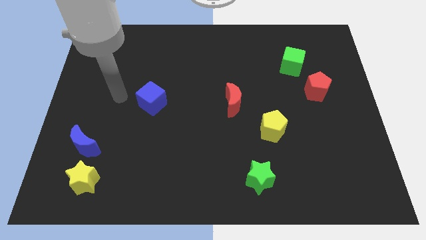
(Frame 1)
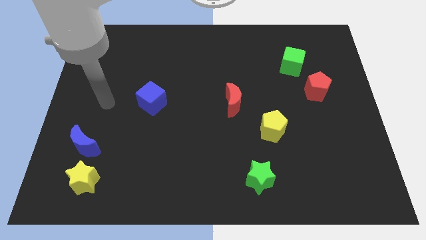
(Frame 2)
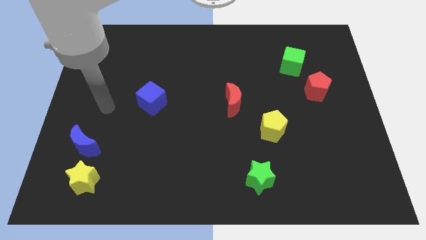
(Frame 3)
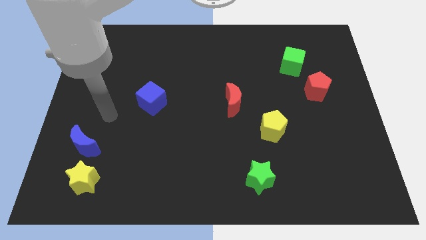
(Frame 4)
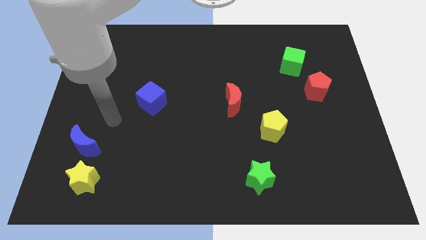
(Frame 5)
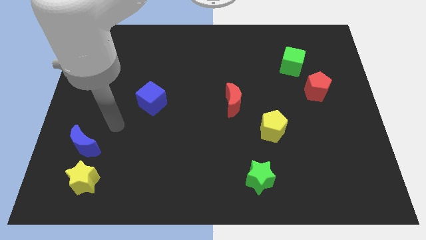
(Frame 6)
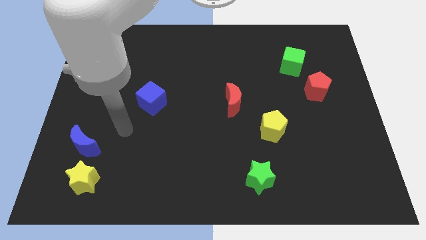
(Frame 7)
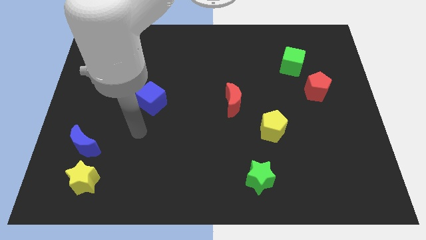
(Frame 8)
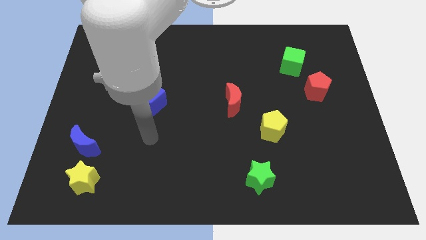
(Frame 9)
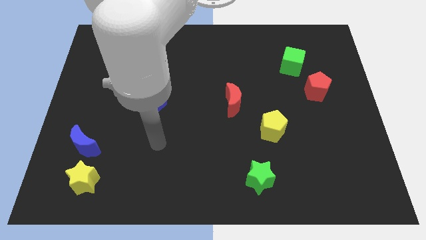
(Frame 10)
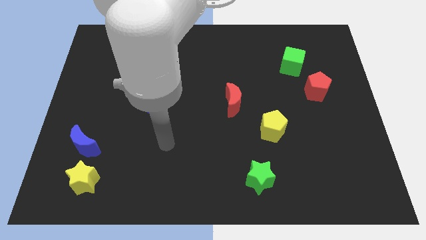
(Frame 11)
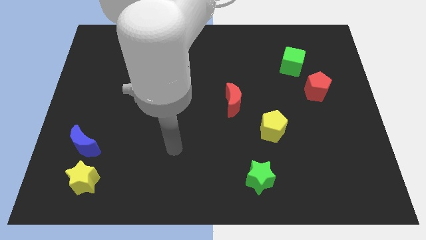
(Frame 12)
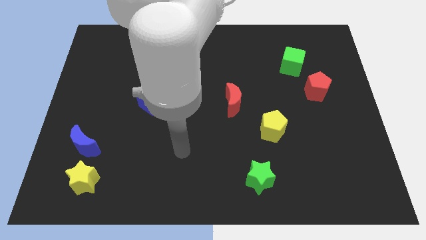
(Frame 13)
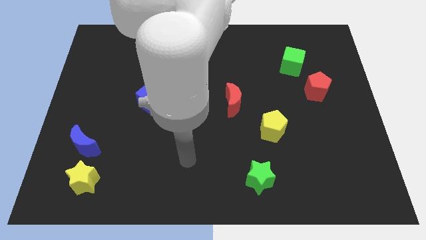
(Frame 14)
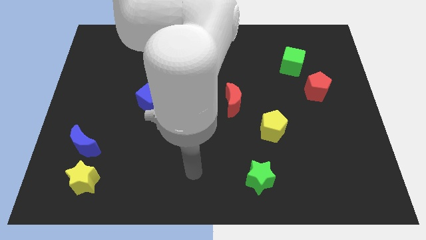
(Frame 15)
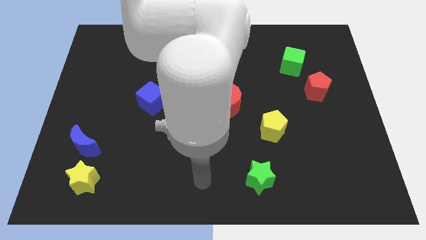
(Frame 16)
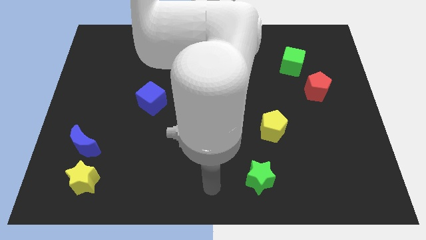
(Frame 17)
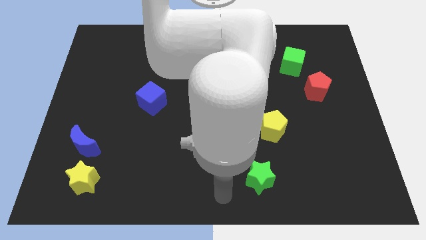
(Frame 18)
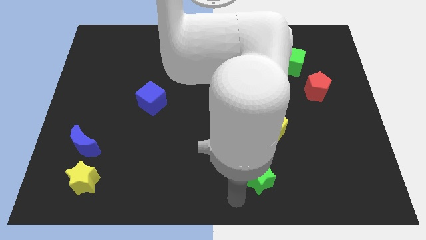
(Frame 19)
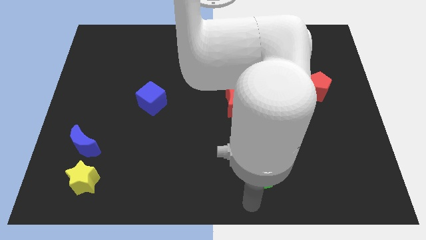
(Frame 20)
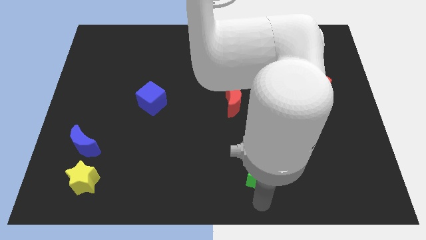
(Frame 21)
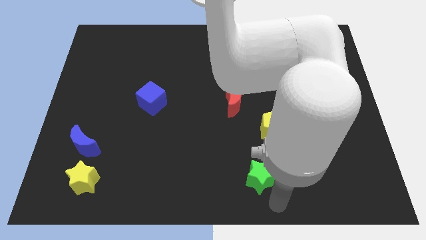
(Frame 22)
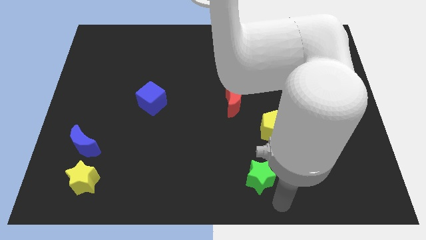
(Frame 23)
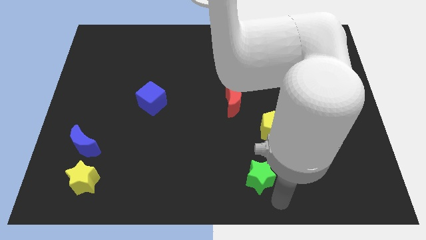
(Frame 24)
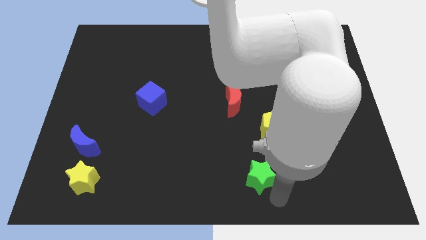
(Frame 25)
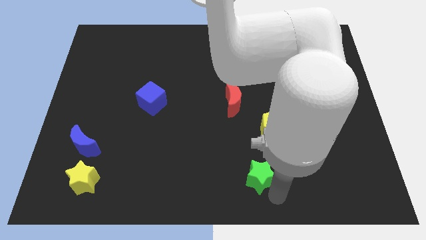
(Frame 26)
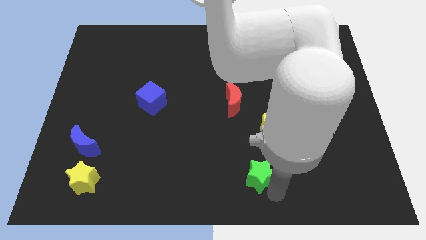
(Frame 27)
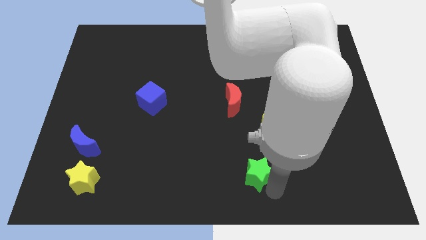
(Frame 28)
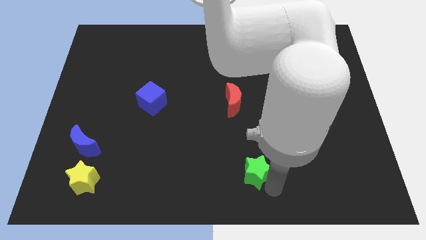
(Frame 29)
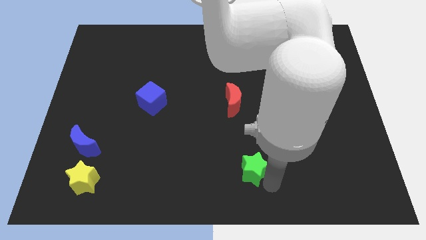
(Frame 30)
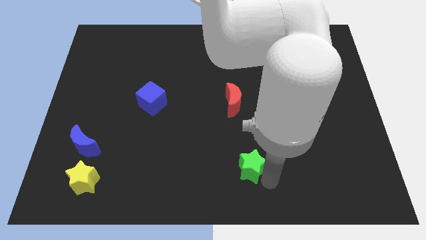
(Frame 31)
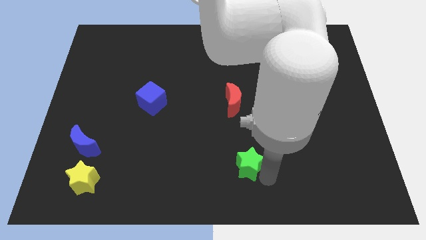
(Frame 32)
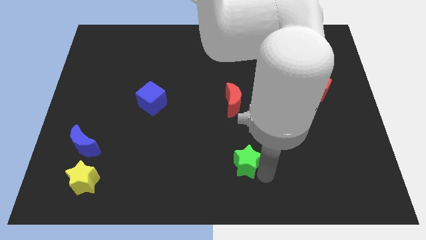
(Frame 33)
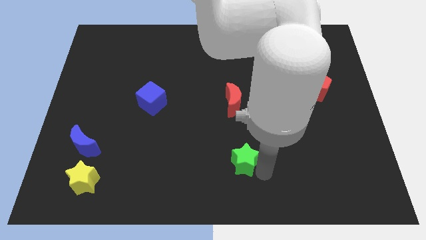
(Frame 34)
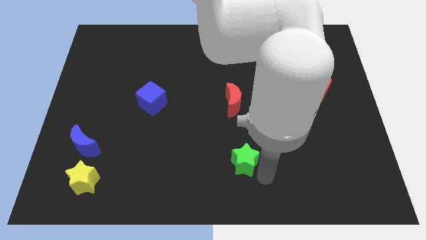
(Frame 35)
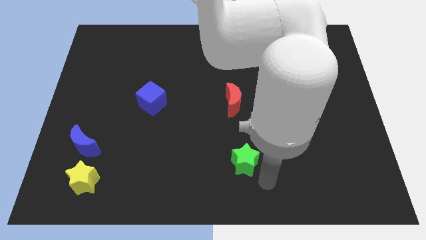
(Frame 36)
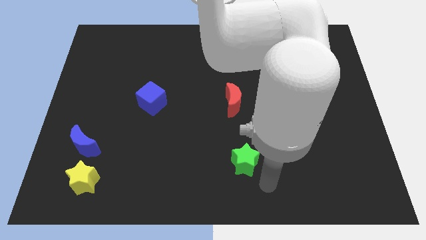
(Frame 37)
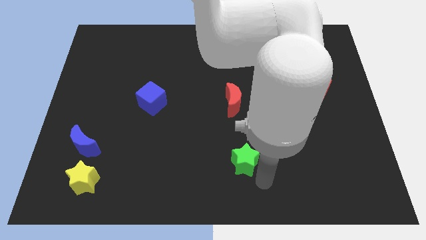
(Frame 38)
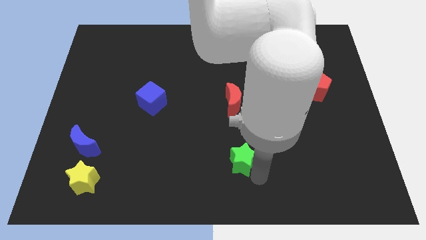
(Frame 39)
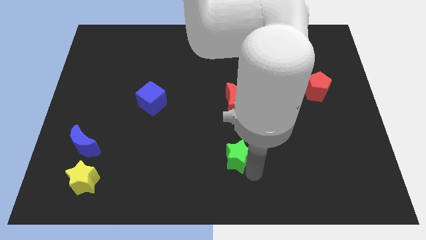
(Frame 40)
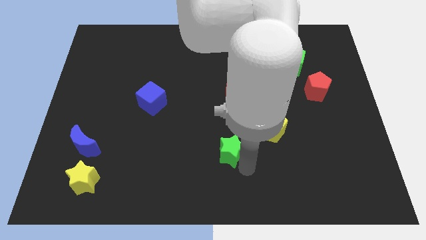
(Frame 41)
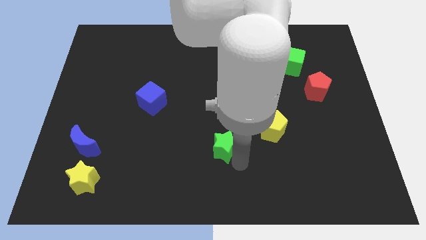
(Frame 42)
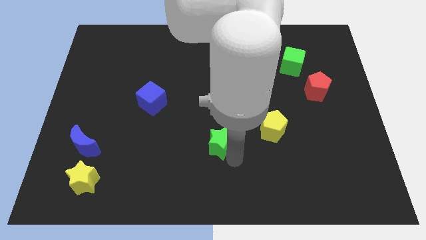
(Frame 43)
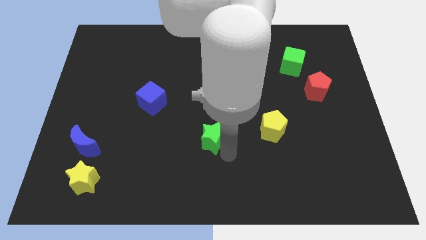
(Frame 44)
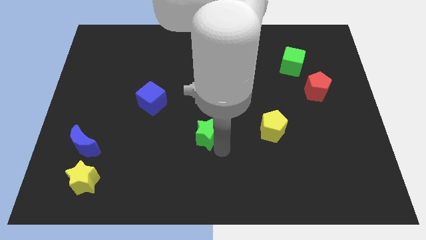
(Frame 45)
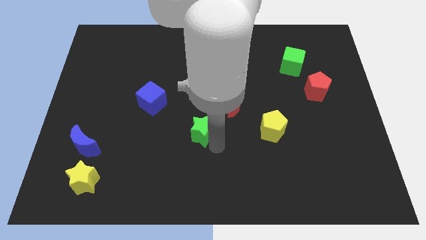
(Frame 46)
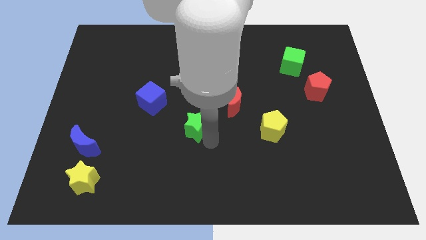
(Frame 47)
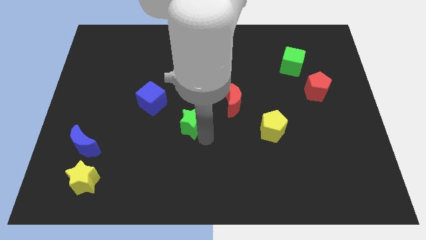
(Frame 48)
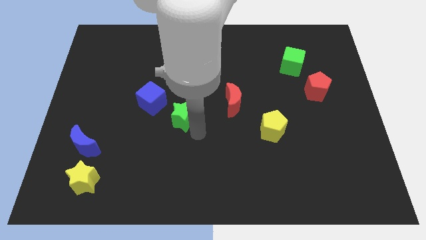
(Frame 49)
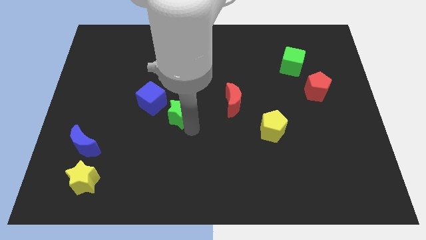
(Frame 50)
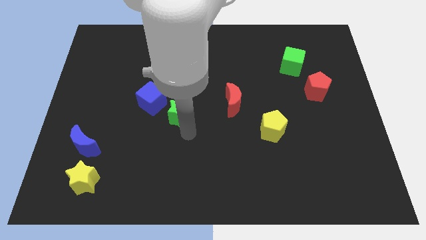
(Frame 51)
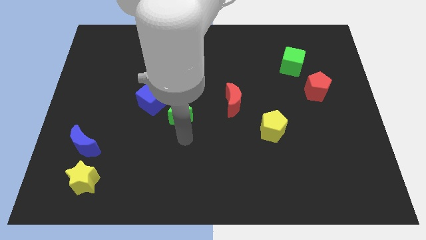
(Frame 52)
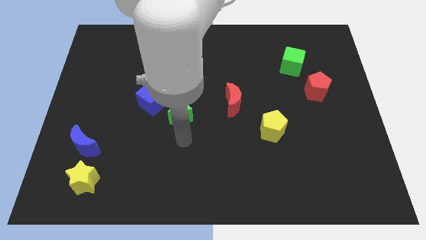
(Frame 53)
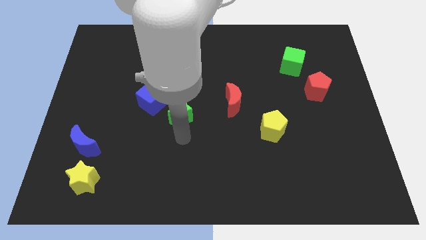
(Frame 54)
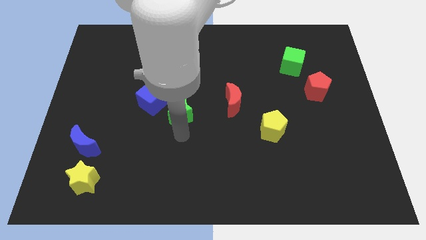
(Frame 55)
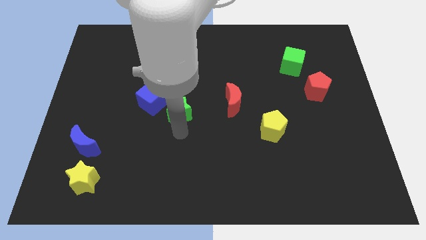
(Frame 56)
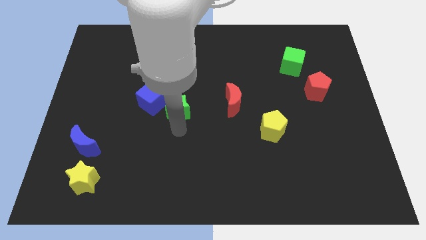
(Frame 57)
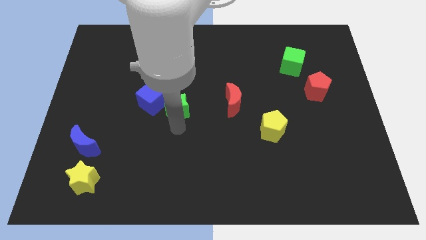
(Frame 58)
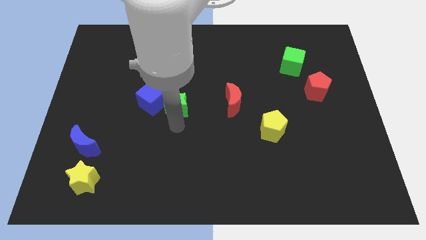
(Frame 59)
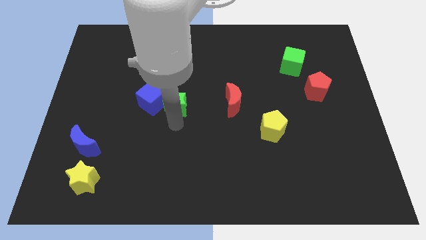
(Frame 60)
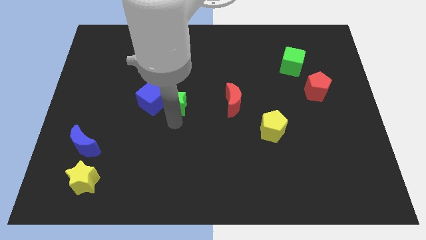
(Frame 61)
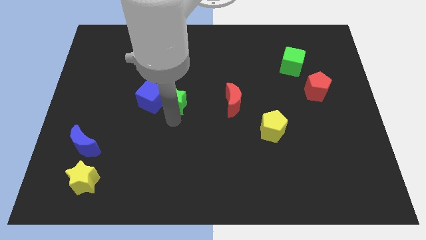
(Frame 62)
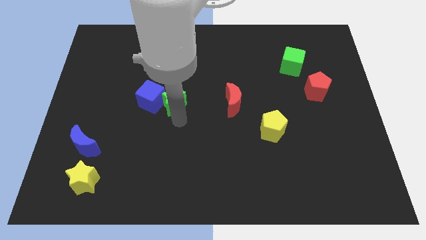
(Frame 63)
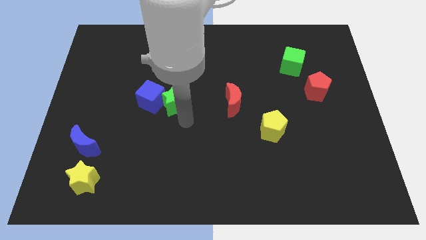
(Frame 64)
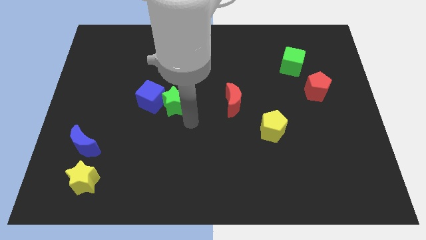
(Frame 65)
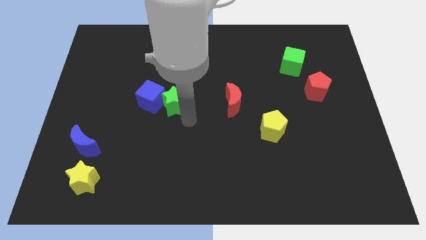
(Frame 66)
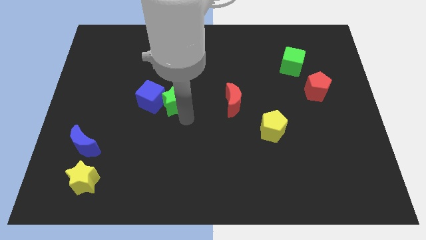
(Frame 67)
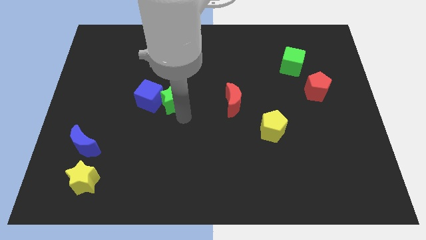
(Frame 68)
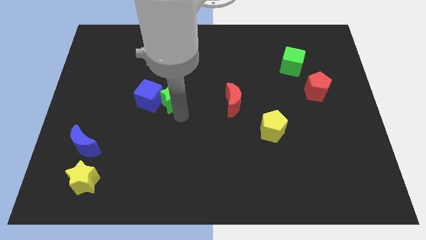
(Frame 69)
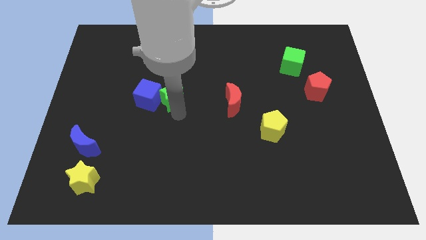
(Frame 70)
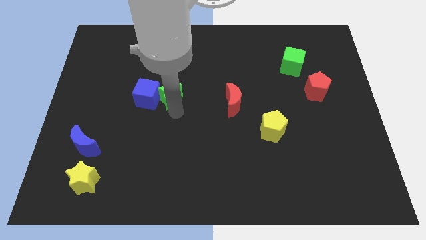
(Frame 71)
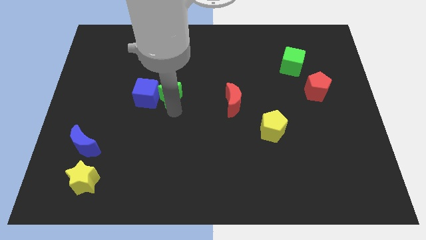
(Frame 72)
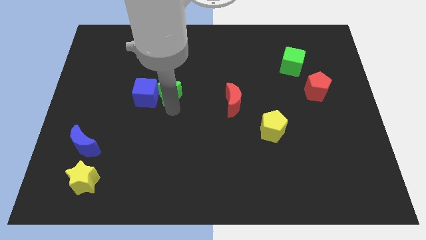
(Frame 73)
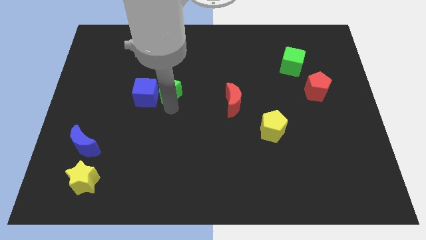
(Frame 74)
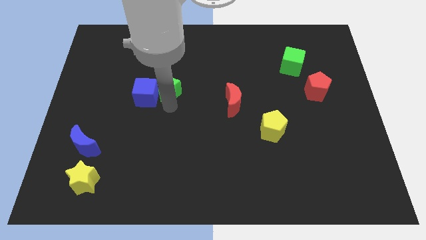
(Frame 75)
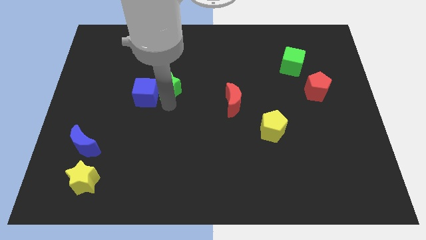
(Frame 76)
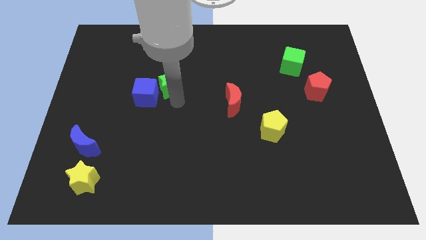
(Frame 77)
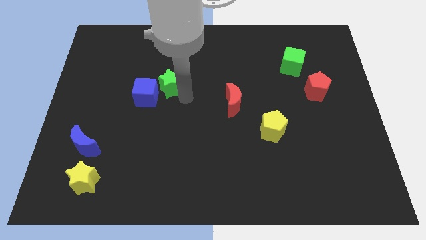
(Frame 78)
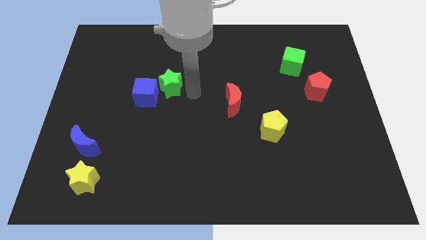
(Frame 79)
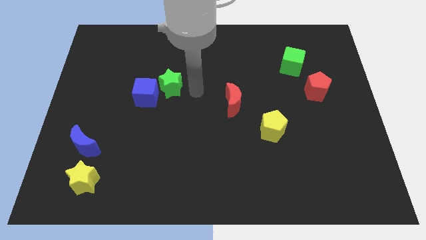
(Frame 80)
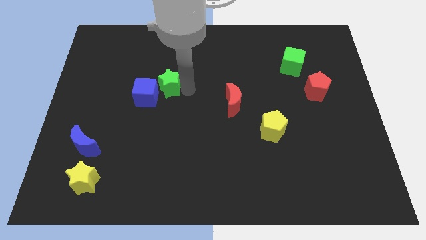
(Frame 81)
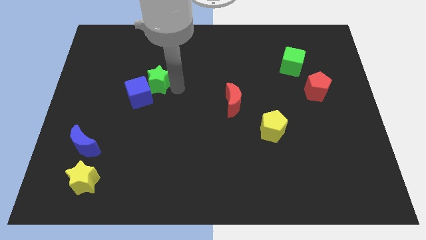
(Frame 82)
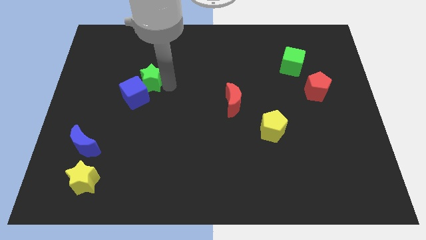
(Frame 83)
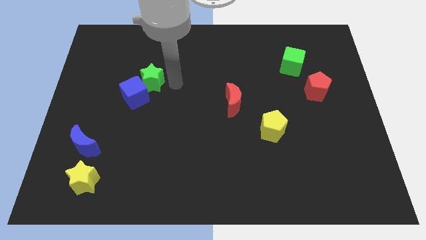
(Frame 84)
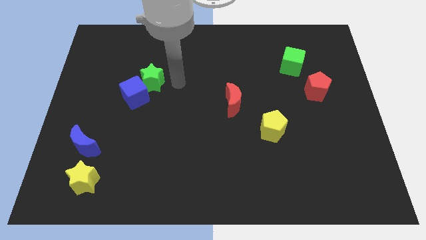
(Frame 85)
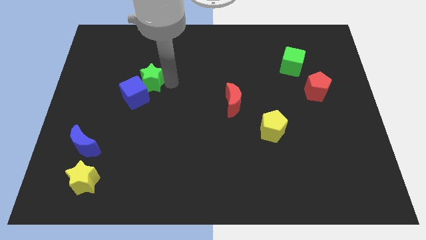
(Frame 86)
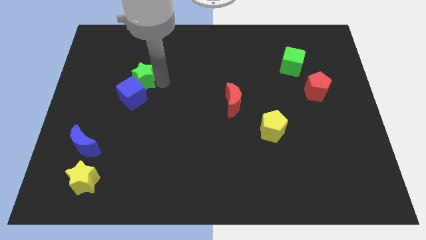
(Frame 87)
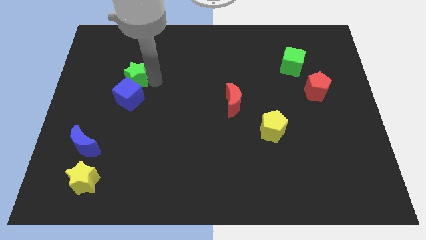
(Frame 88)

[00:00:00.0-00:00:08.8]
slide the green star diagonally up and to the left of the blue cube
